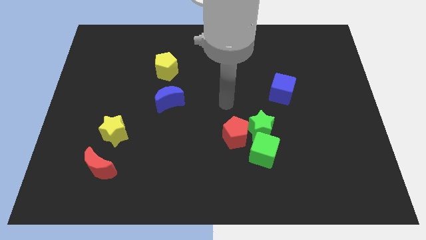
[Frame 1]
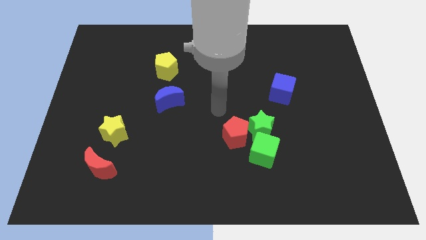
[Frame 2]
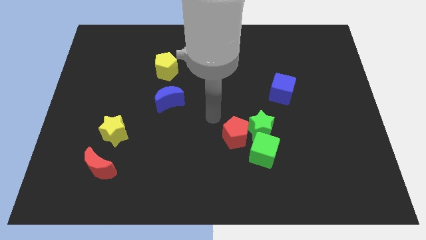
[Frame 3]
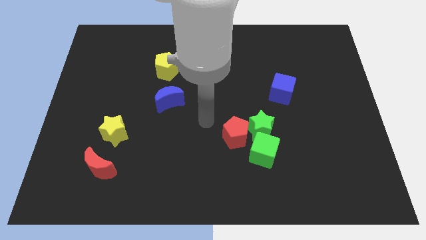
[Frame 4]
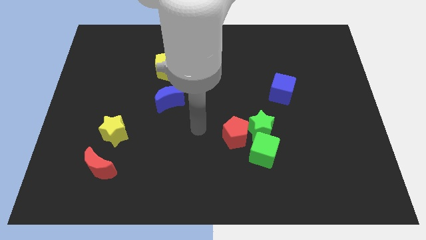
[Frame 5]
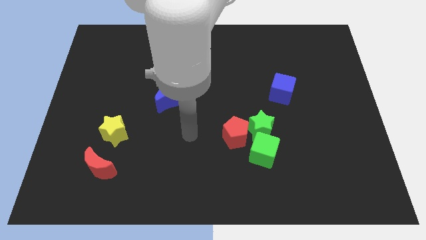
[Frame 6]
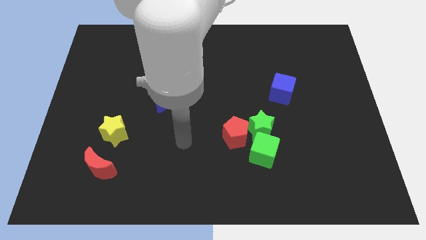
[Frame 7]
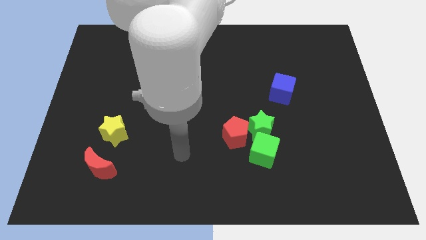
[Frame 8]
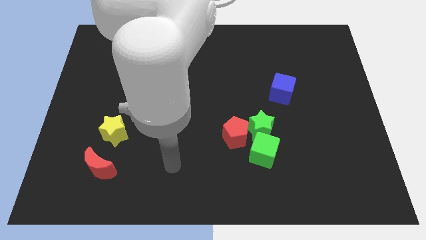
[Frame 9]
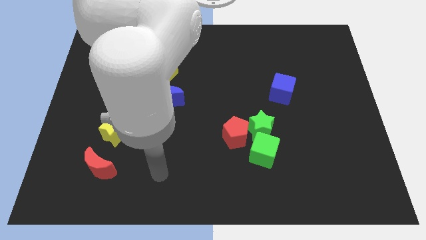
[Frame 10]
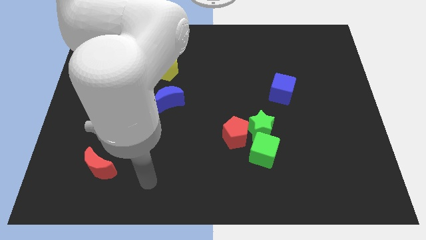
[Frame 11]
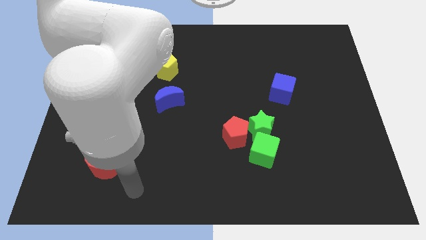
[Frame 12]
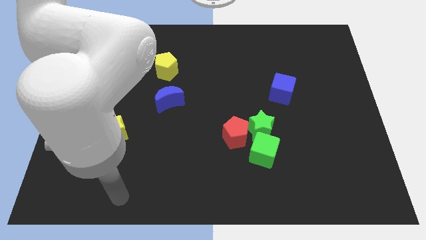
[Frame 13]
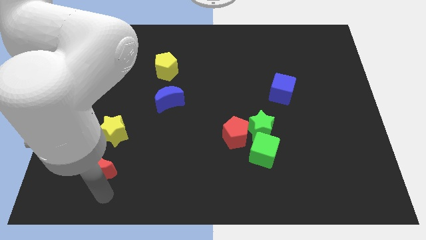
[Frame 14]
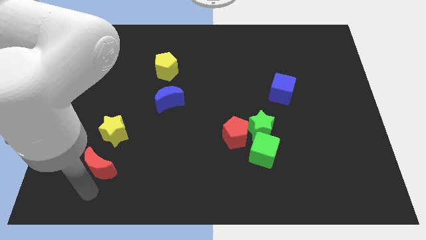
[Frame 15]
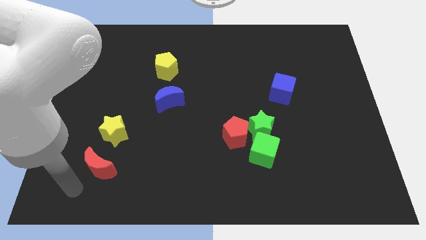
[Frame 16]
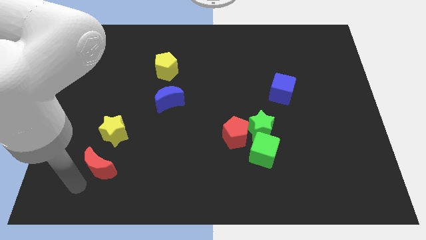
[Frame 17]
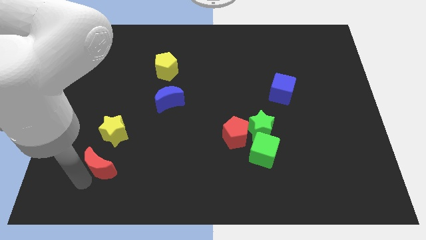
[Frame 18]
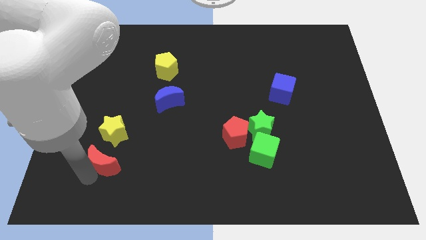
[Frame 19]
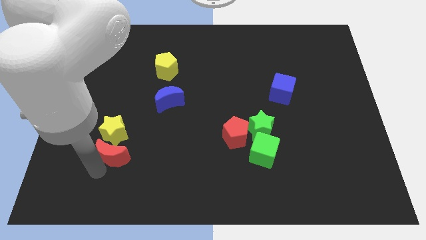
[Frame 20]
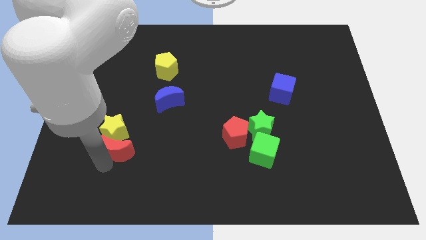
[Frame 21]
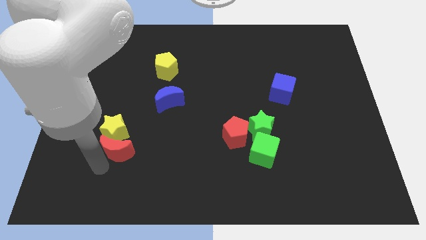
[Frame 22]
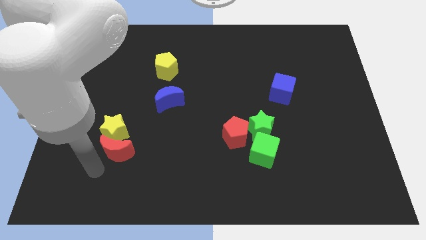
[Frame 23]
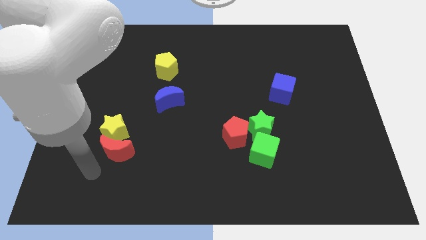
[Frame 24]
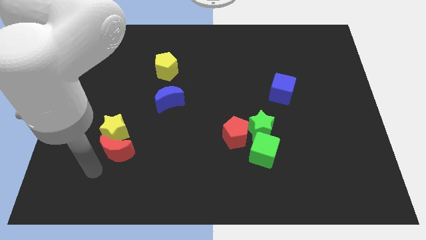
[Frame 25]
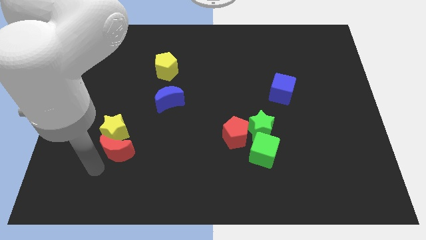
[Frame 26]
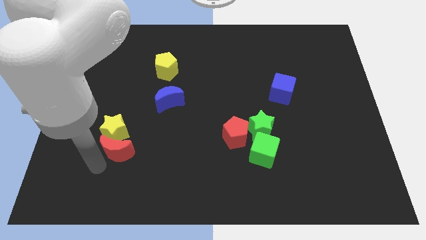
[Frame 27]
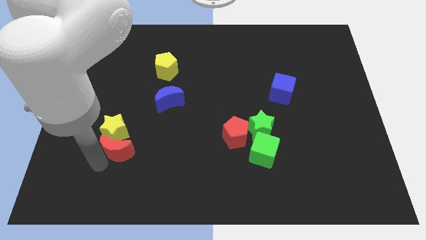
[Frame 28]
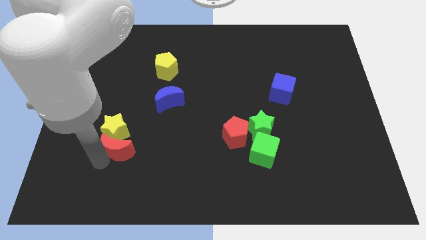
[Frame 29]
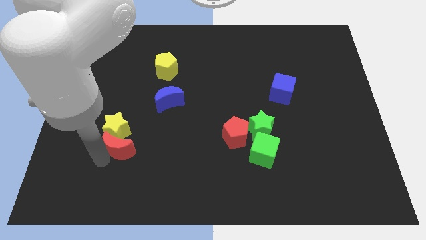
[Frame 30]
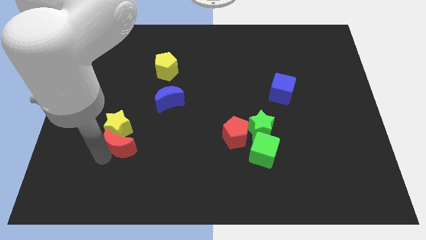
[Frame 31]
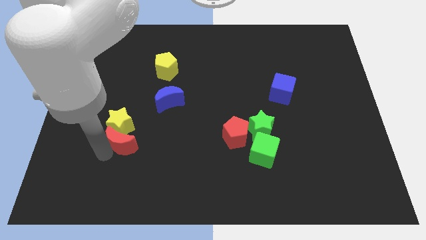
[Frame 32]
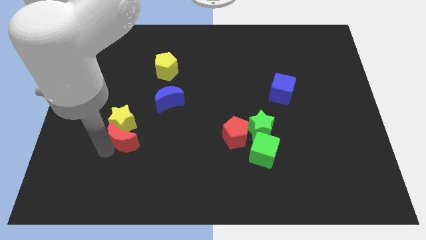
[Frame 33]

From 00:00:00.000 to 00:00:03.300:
slide the red moon a little bit diagonally upwards and right

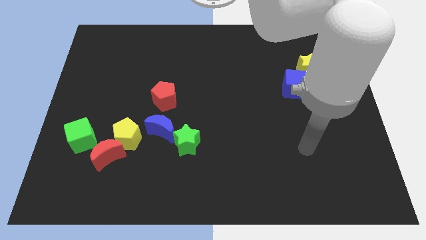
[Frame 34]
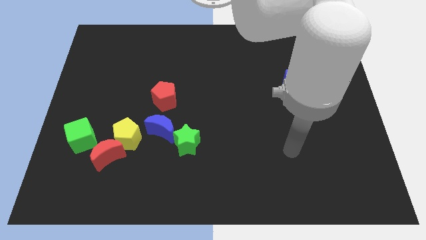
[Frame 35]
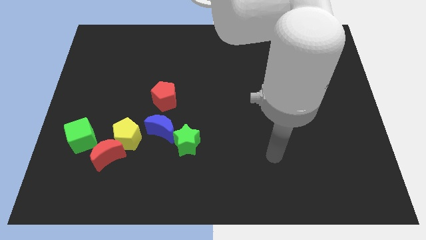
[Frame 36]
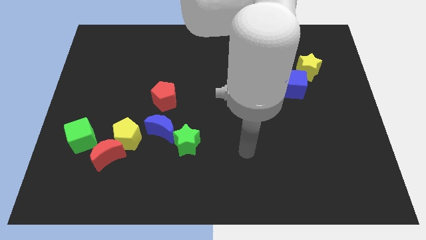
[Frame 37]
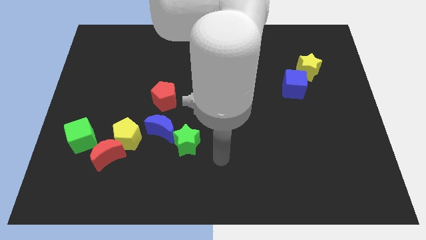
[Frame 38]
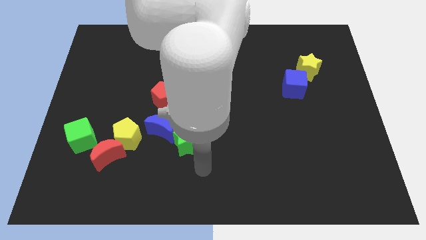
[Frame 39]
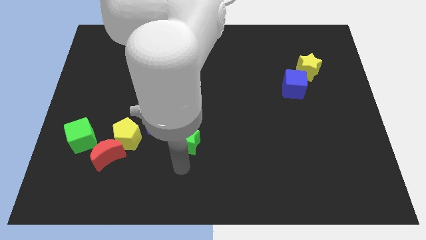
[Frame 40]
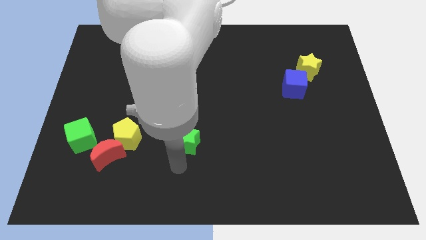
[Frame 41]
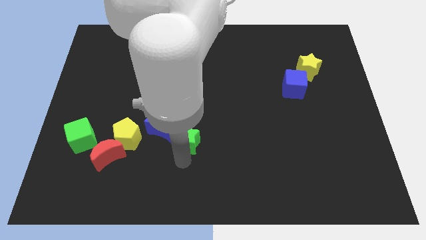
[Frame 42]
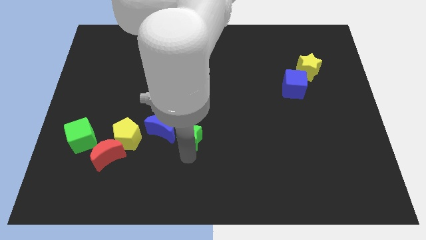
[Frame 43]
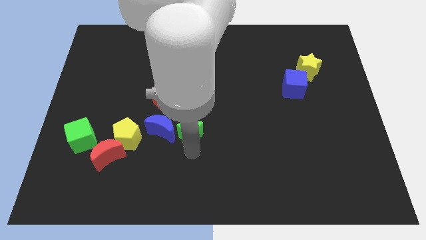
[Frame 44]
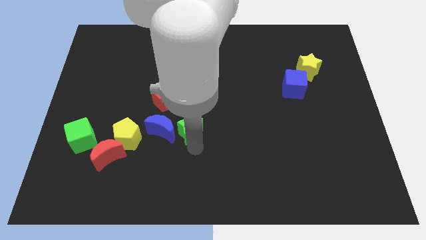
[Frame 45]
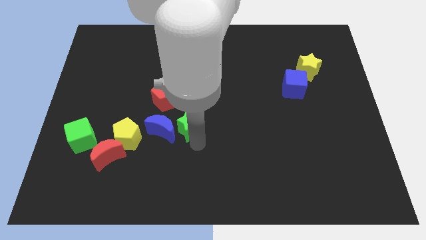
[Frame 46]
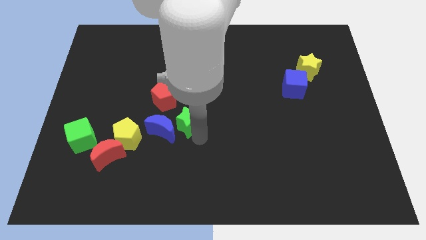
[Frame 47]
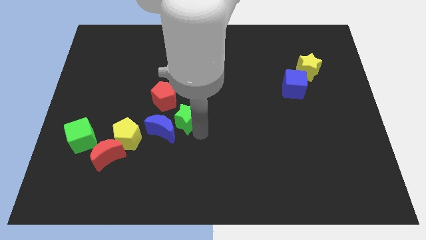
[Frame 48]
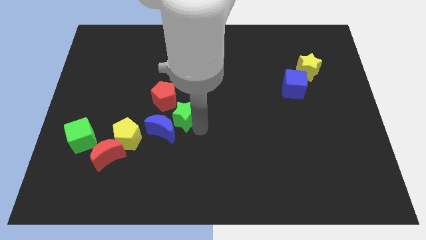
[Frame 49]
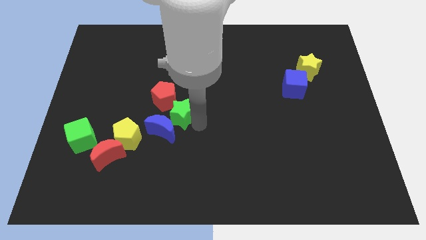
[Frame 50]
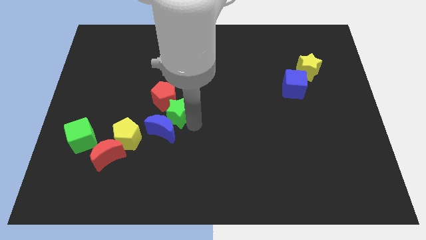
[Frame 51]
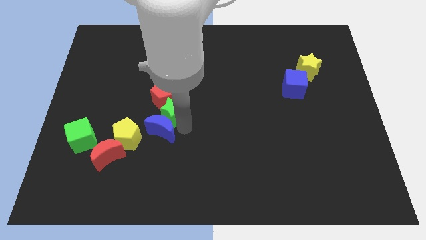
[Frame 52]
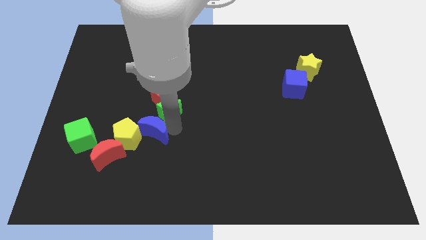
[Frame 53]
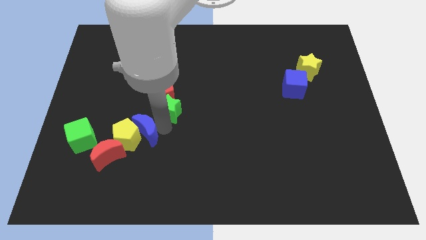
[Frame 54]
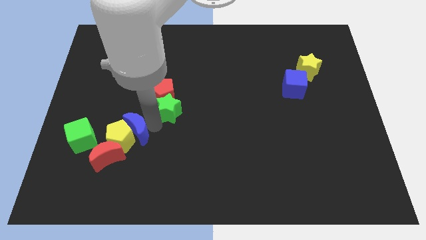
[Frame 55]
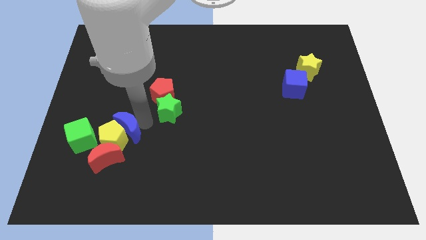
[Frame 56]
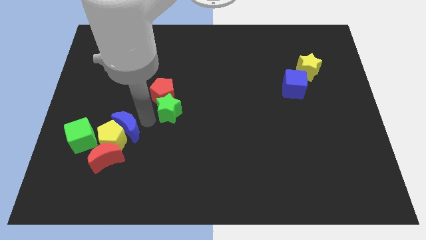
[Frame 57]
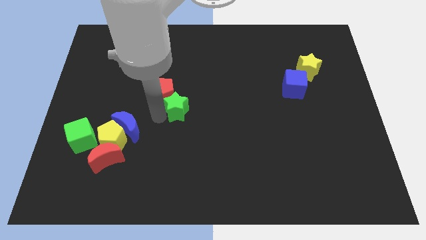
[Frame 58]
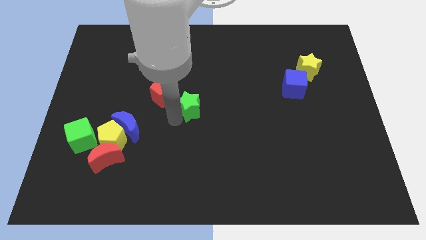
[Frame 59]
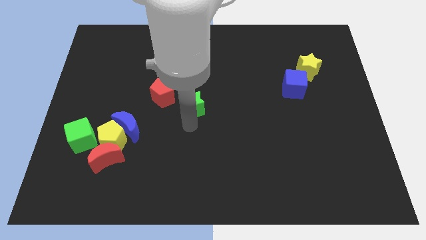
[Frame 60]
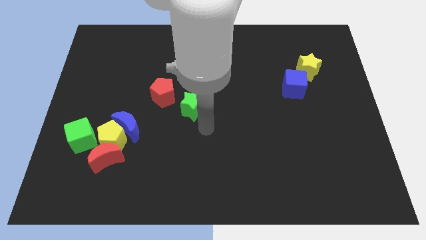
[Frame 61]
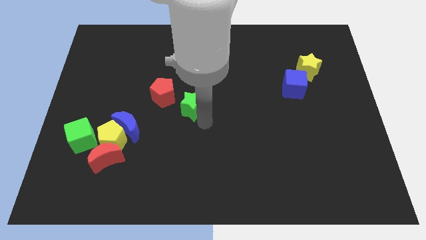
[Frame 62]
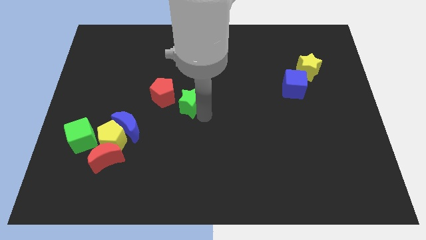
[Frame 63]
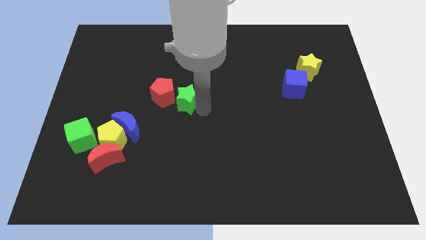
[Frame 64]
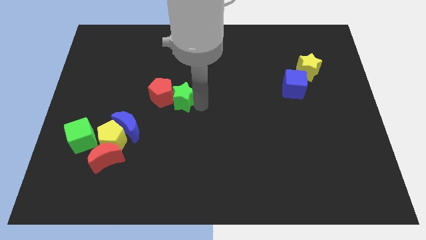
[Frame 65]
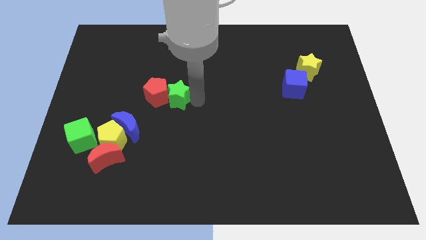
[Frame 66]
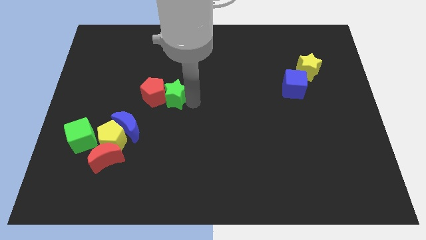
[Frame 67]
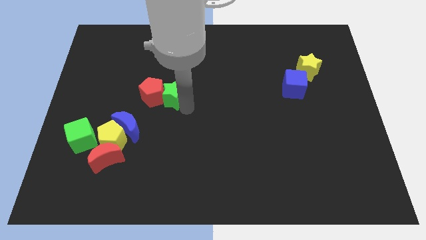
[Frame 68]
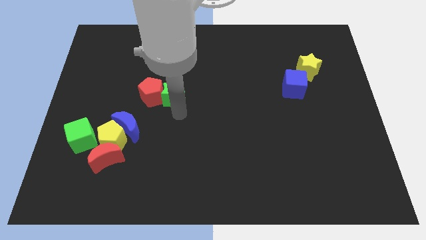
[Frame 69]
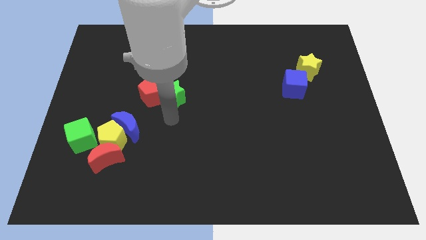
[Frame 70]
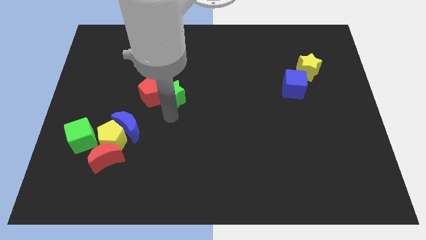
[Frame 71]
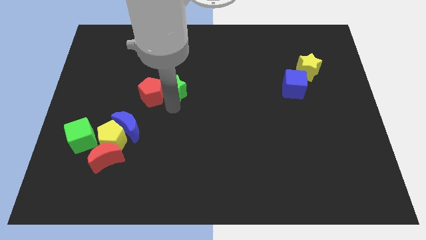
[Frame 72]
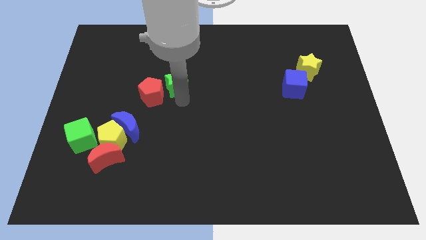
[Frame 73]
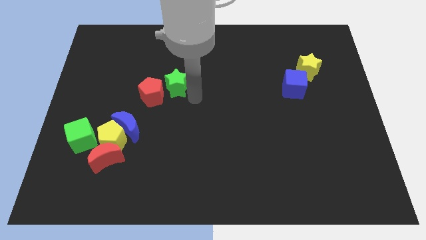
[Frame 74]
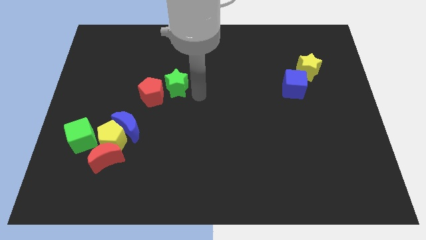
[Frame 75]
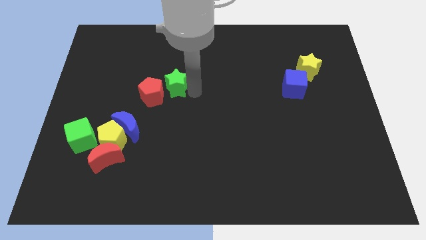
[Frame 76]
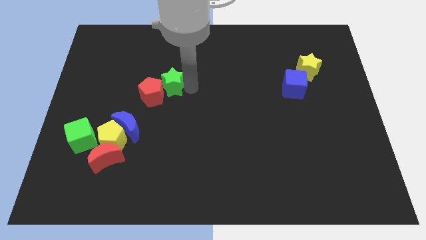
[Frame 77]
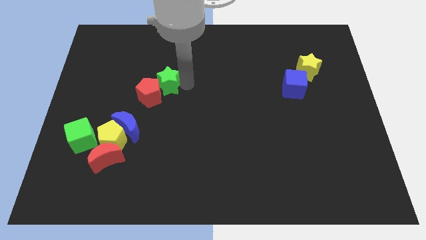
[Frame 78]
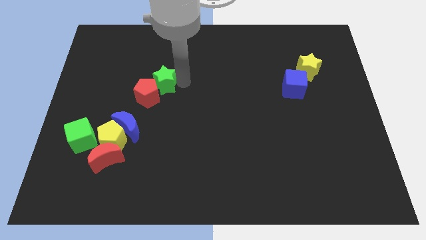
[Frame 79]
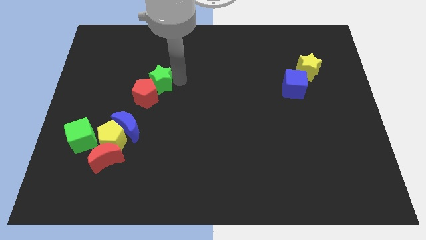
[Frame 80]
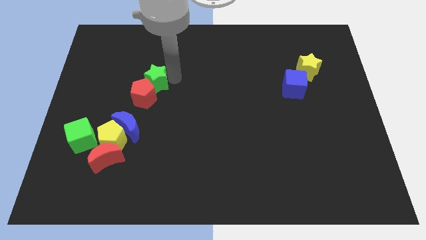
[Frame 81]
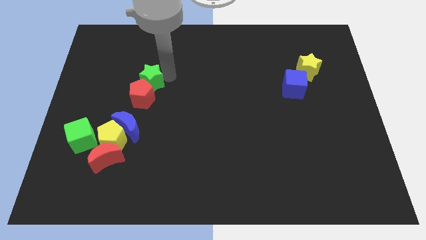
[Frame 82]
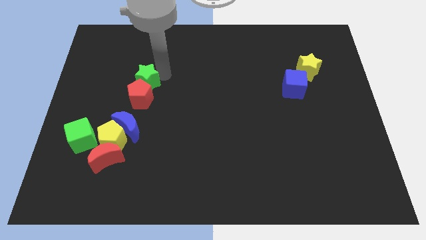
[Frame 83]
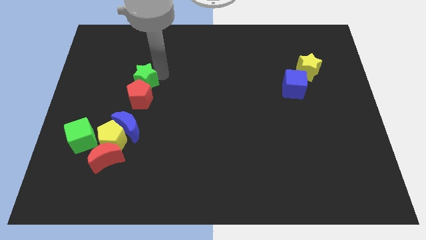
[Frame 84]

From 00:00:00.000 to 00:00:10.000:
push the green star up and left diagonally

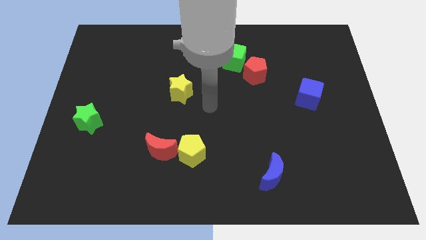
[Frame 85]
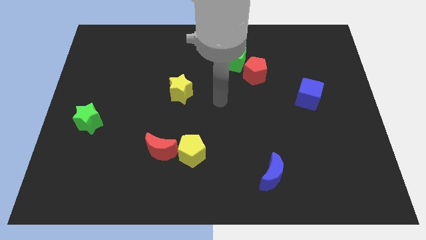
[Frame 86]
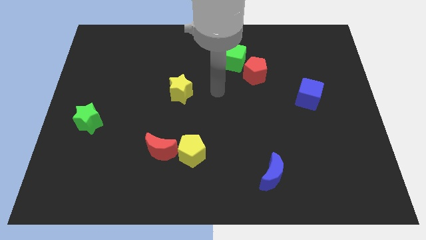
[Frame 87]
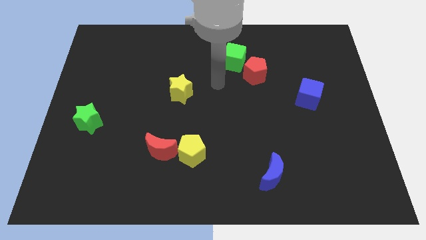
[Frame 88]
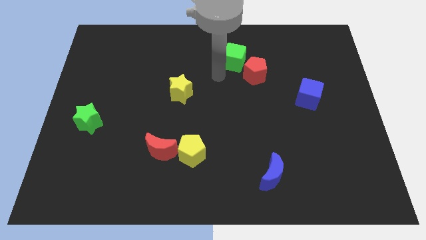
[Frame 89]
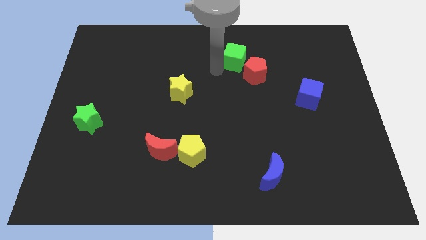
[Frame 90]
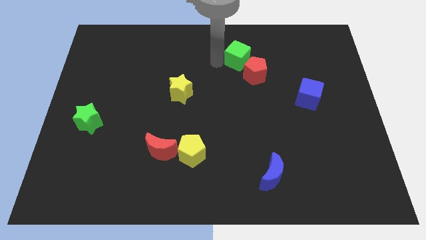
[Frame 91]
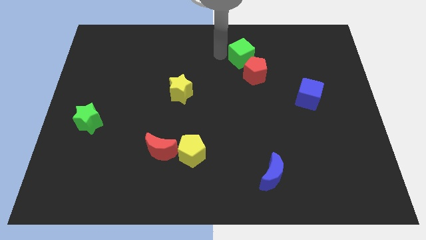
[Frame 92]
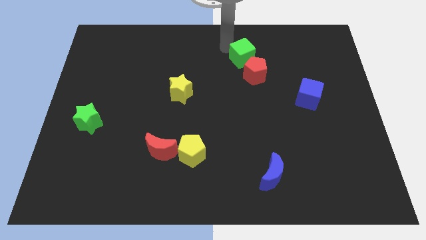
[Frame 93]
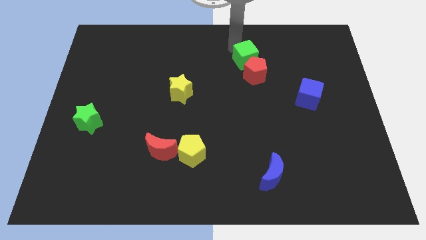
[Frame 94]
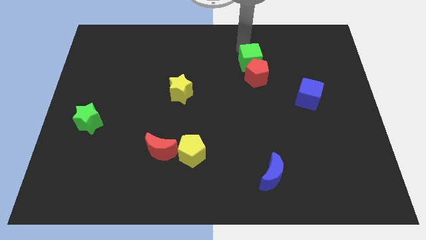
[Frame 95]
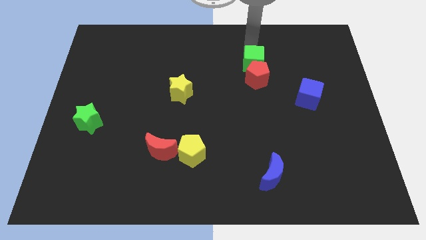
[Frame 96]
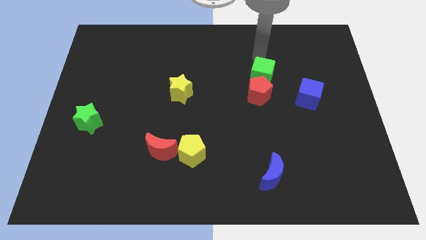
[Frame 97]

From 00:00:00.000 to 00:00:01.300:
slightly slide the red pentagon down
